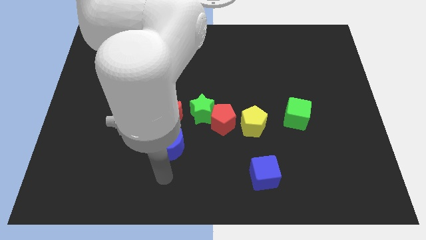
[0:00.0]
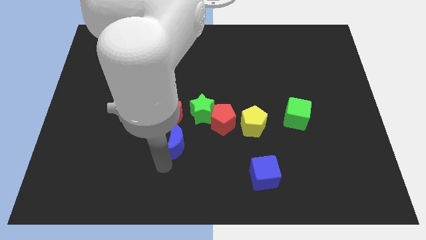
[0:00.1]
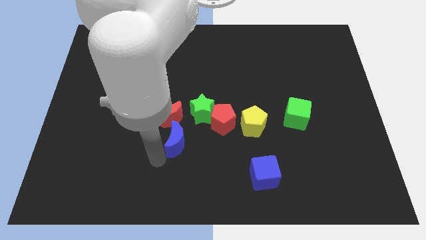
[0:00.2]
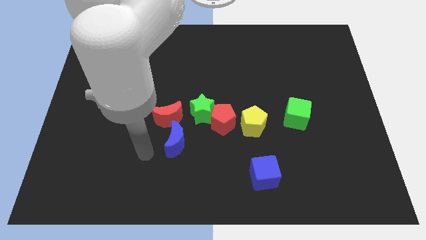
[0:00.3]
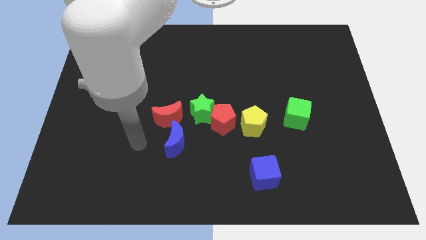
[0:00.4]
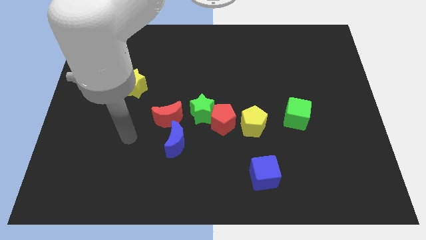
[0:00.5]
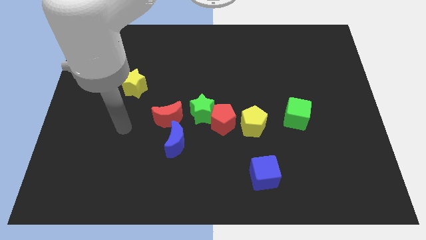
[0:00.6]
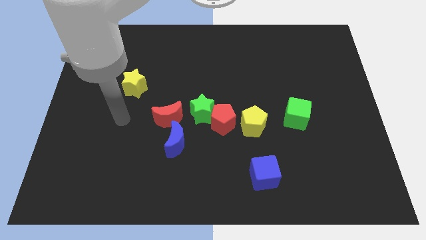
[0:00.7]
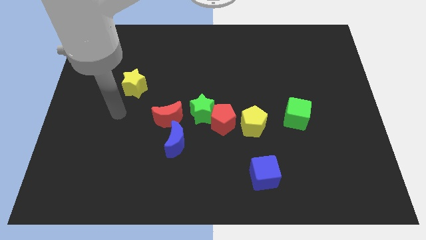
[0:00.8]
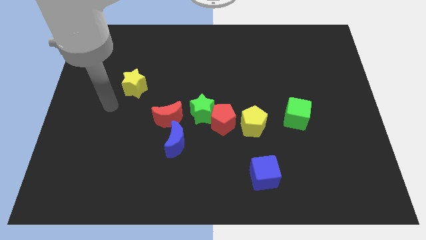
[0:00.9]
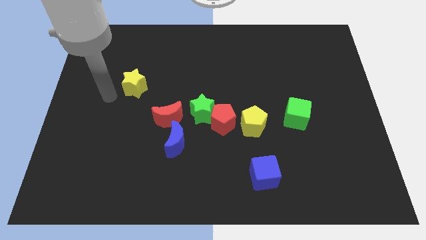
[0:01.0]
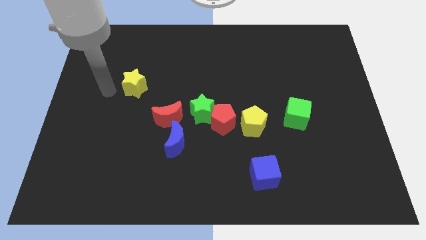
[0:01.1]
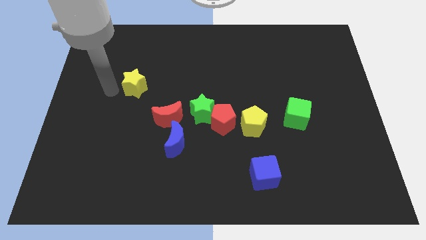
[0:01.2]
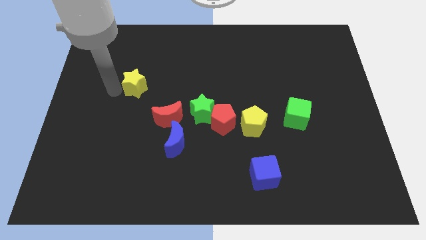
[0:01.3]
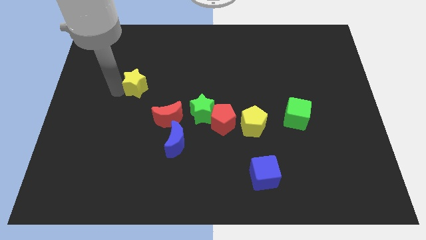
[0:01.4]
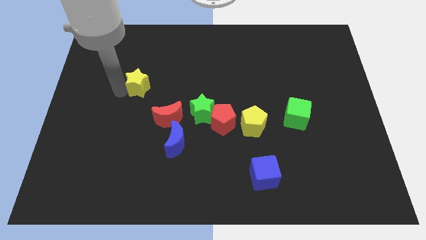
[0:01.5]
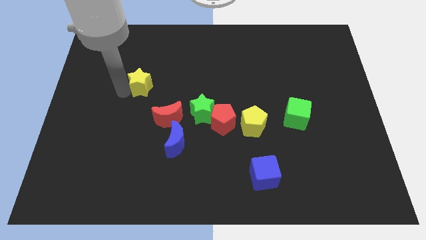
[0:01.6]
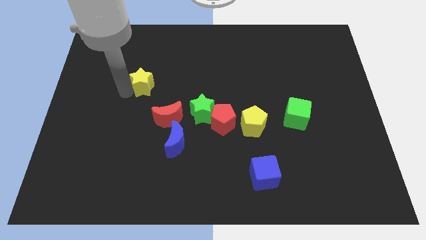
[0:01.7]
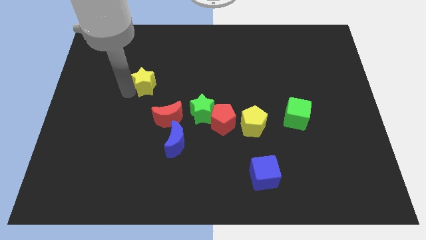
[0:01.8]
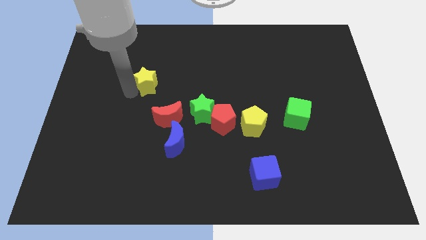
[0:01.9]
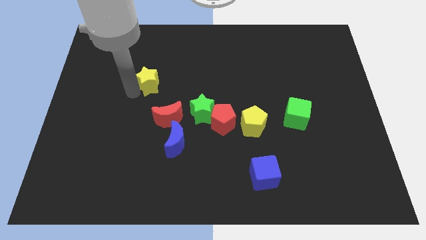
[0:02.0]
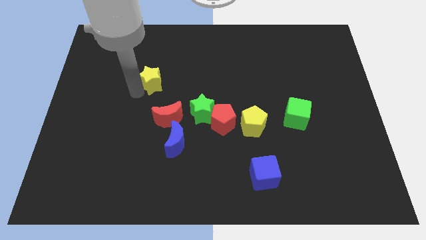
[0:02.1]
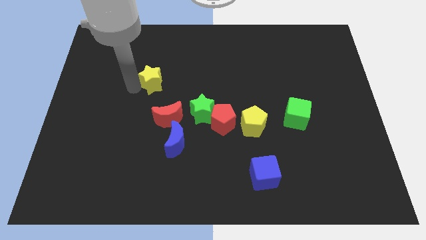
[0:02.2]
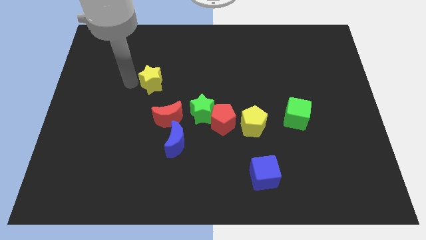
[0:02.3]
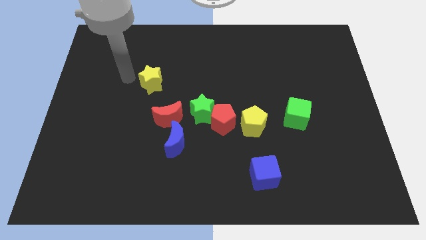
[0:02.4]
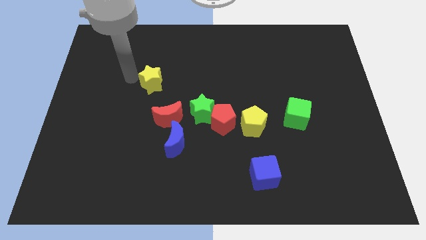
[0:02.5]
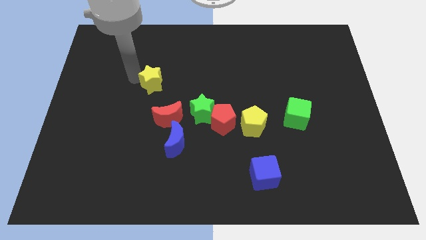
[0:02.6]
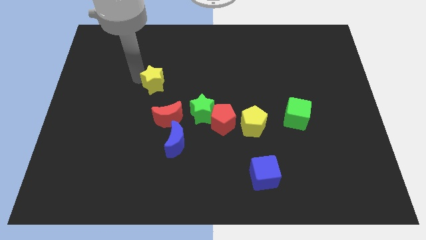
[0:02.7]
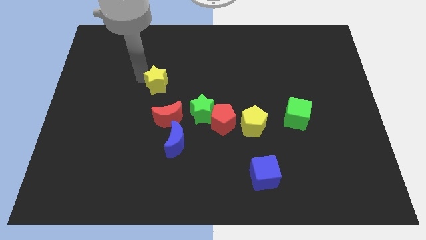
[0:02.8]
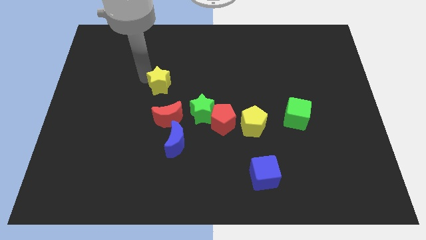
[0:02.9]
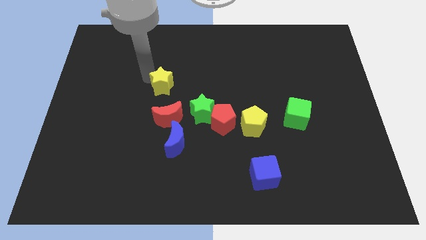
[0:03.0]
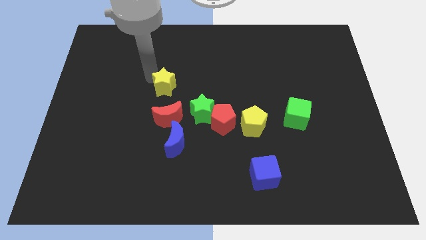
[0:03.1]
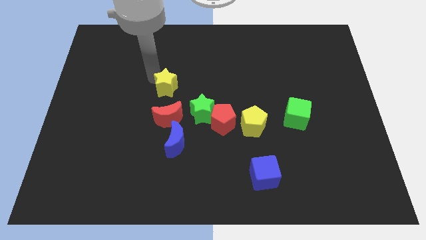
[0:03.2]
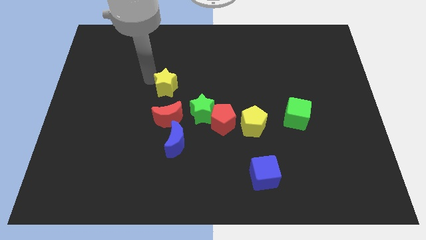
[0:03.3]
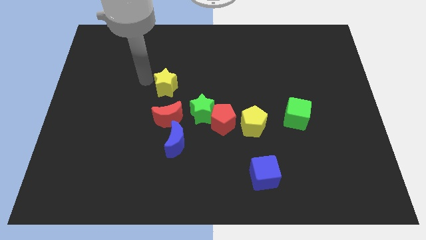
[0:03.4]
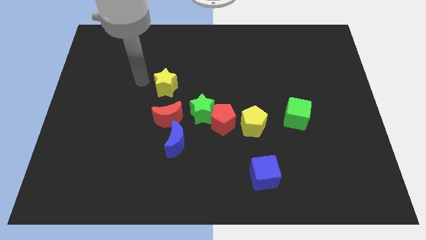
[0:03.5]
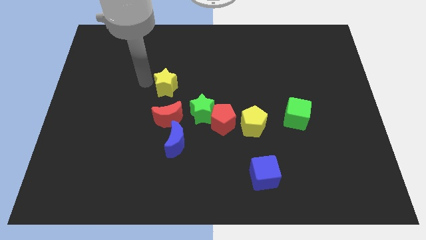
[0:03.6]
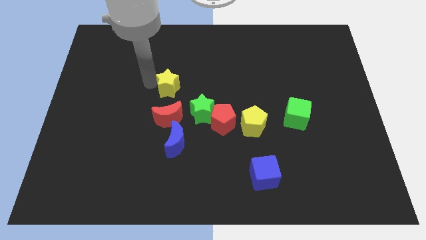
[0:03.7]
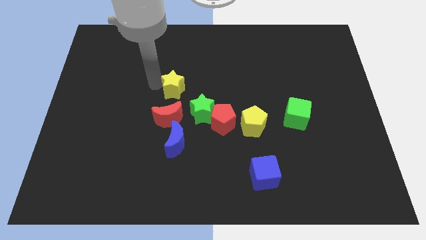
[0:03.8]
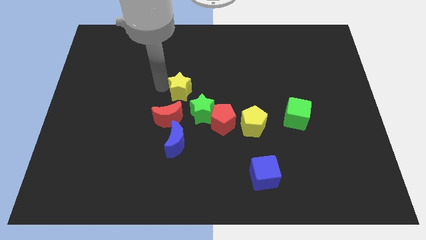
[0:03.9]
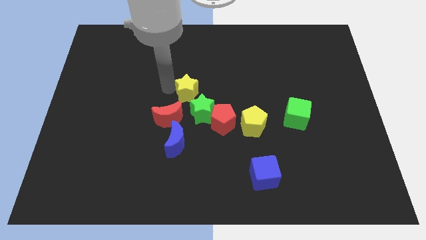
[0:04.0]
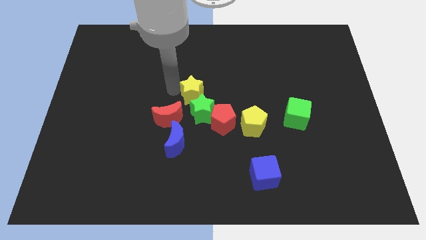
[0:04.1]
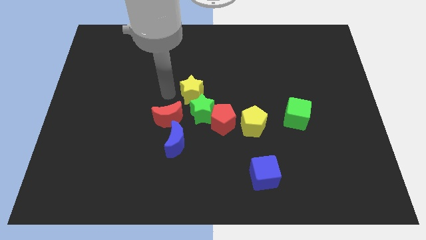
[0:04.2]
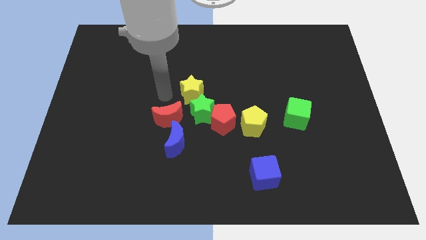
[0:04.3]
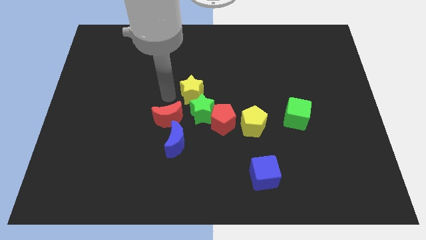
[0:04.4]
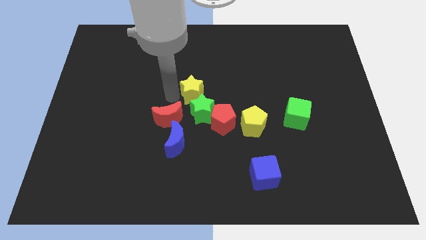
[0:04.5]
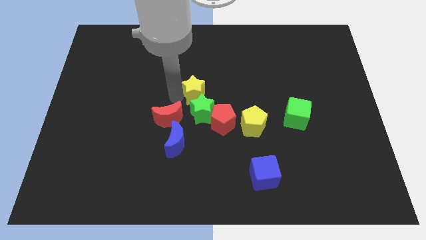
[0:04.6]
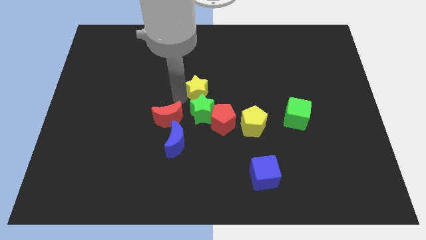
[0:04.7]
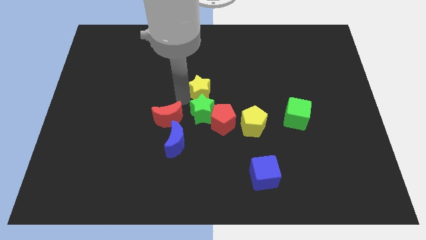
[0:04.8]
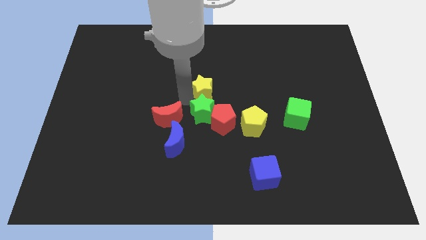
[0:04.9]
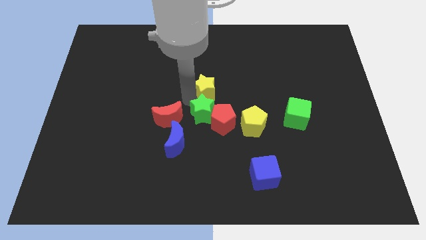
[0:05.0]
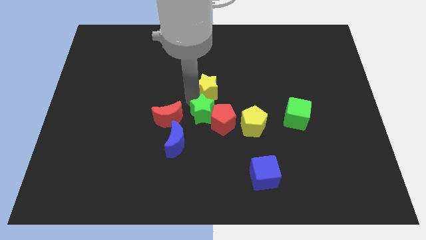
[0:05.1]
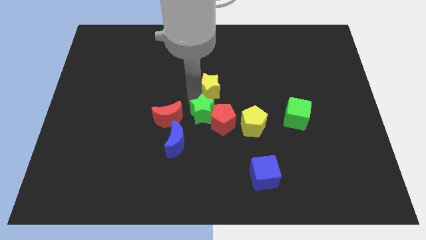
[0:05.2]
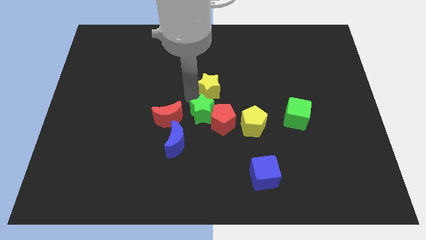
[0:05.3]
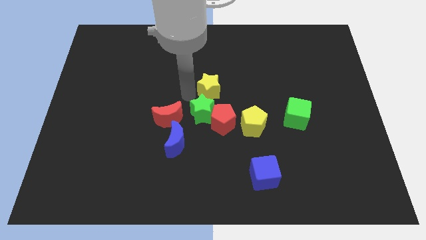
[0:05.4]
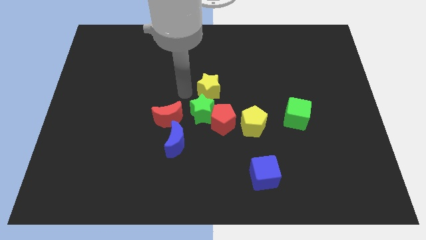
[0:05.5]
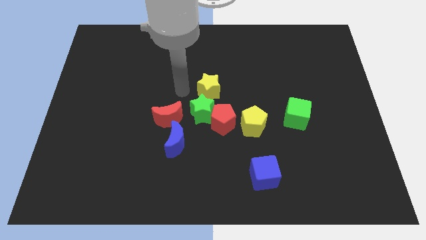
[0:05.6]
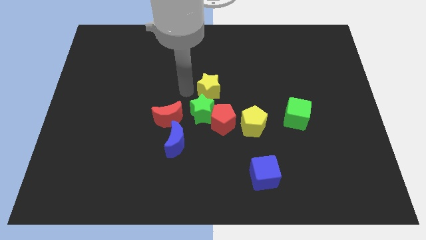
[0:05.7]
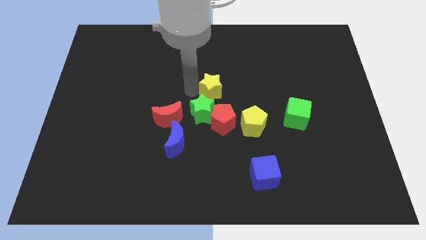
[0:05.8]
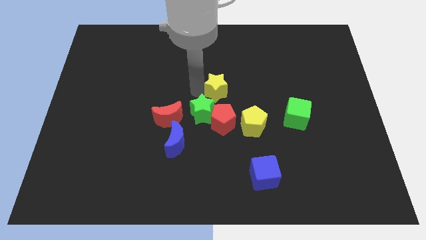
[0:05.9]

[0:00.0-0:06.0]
move the yellow star right

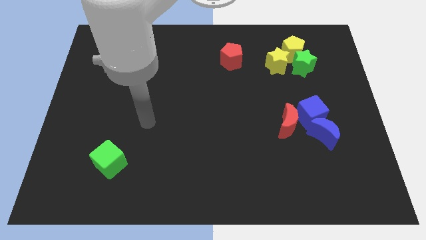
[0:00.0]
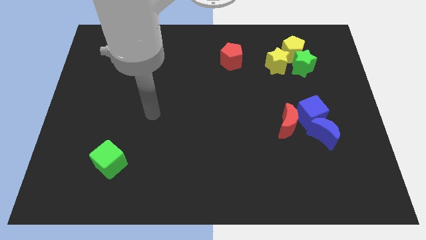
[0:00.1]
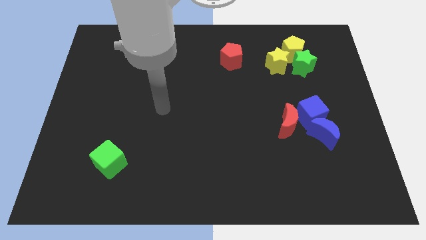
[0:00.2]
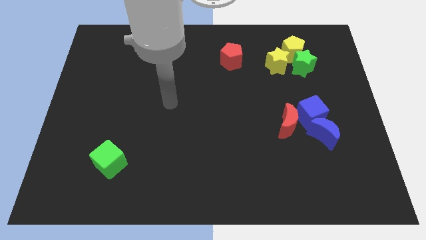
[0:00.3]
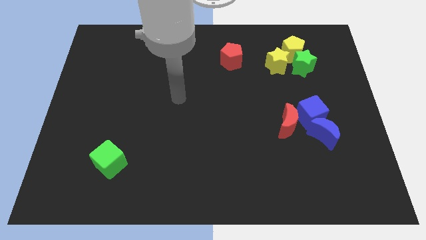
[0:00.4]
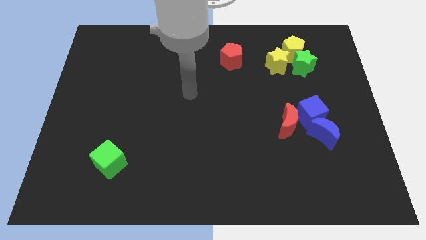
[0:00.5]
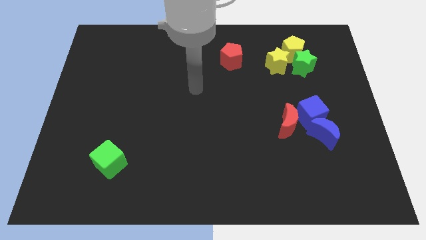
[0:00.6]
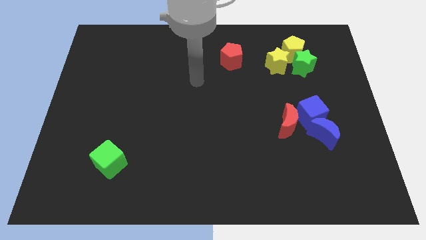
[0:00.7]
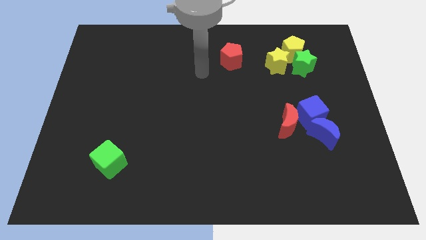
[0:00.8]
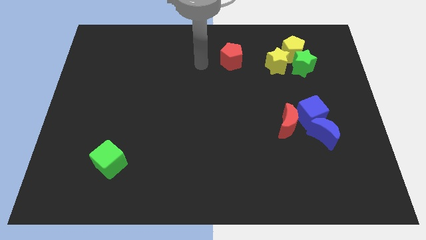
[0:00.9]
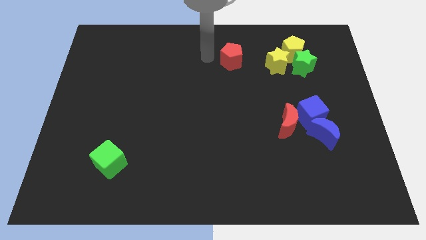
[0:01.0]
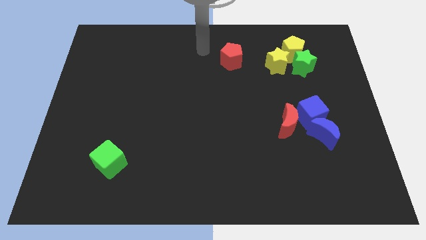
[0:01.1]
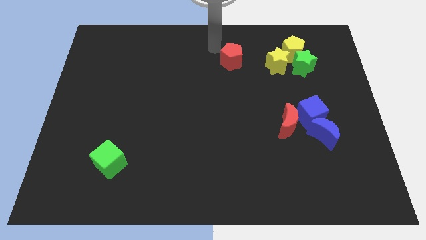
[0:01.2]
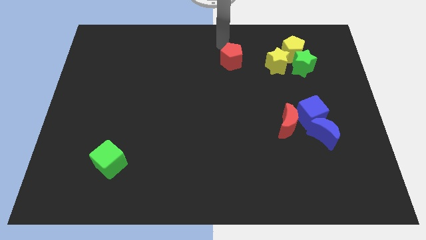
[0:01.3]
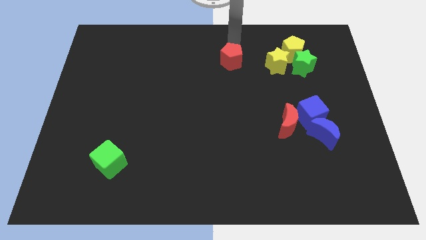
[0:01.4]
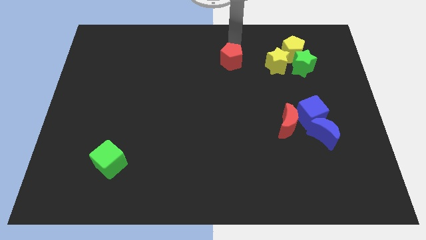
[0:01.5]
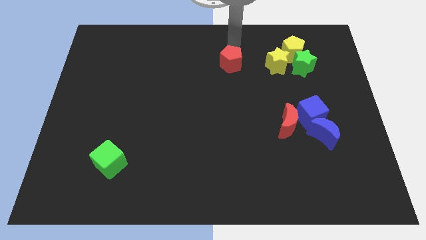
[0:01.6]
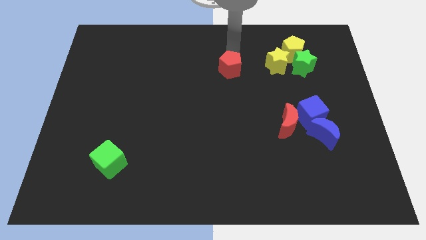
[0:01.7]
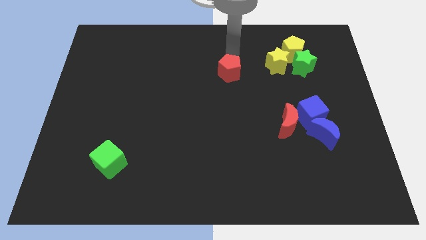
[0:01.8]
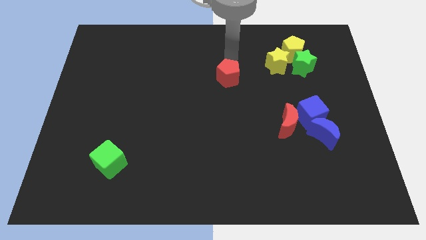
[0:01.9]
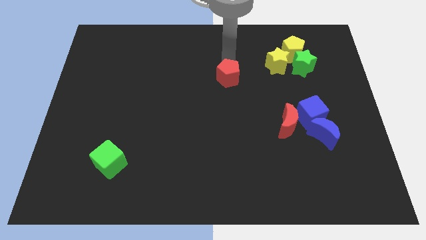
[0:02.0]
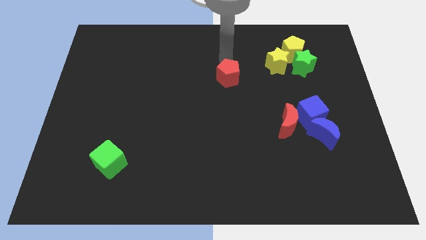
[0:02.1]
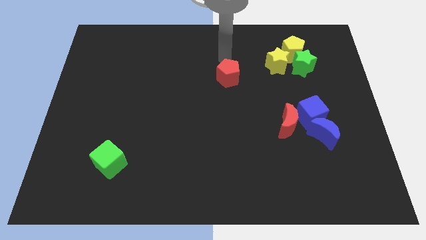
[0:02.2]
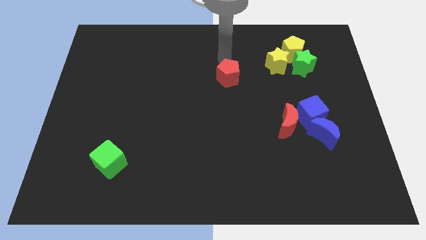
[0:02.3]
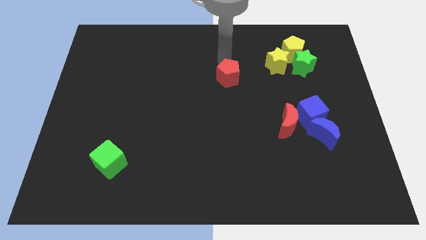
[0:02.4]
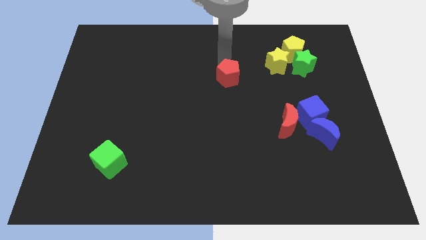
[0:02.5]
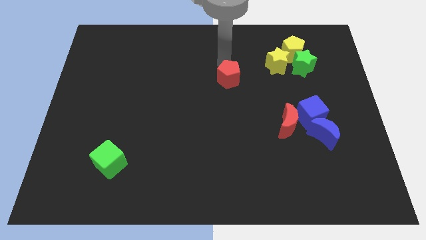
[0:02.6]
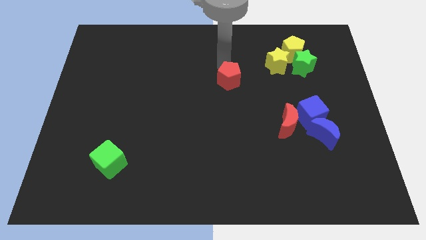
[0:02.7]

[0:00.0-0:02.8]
slightly slide the red pentagon down
